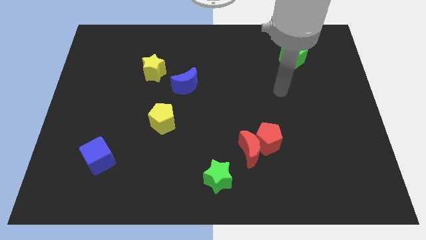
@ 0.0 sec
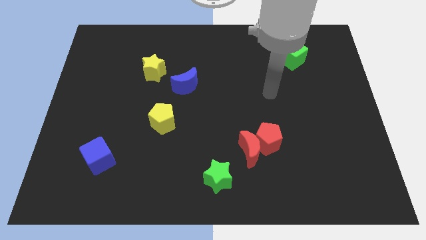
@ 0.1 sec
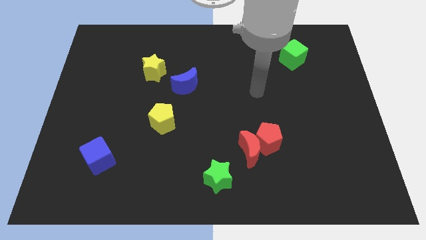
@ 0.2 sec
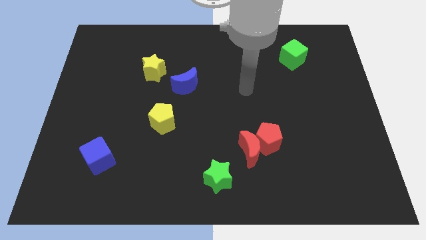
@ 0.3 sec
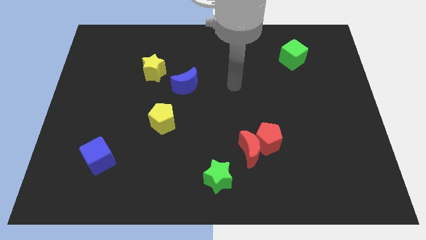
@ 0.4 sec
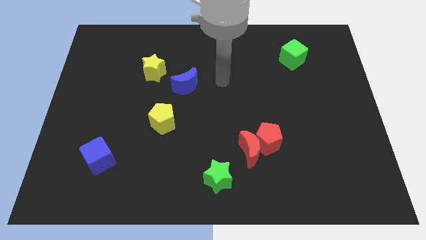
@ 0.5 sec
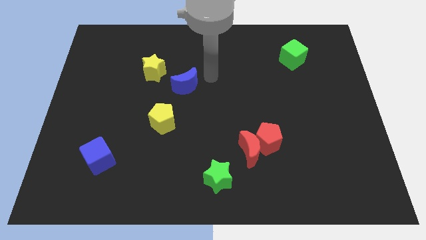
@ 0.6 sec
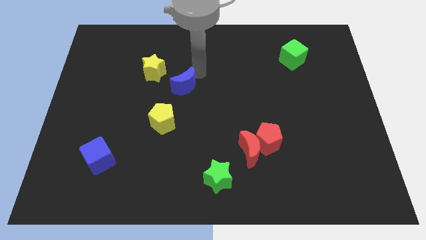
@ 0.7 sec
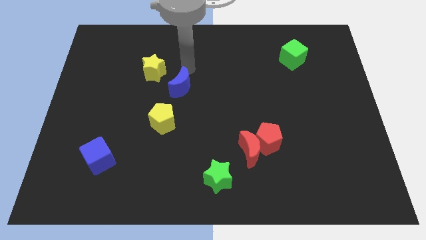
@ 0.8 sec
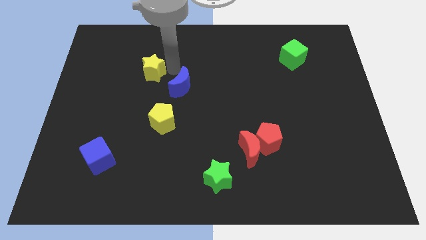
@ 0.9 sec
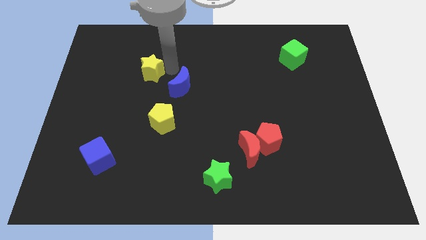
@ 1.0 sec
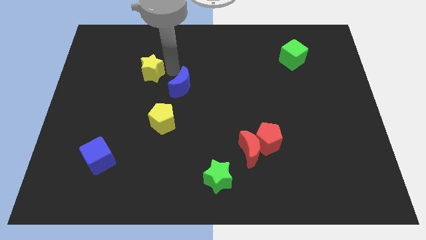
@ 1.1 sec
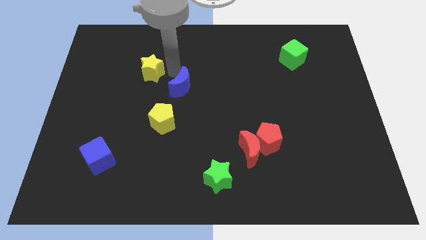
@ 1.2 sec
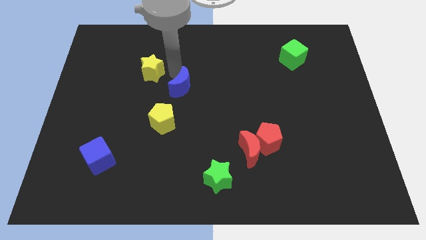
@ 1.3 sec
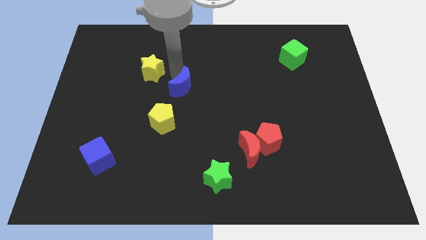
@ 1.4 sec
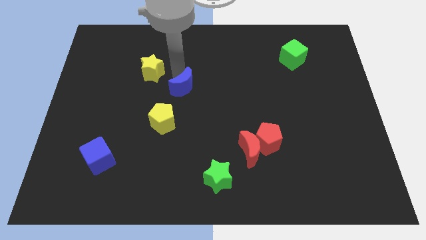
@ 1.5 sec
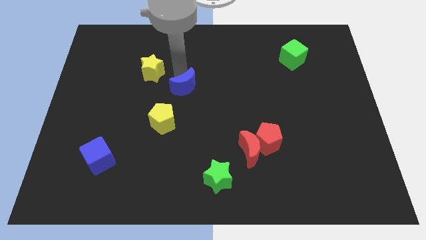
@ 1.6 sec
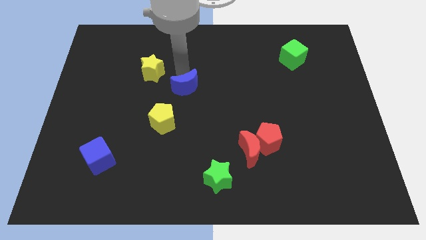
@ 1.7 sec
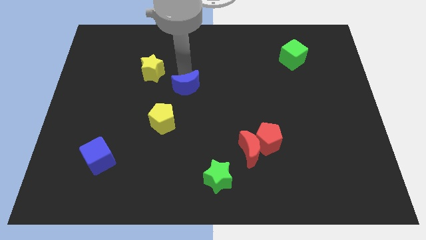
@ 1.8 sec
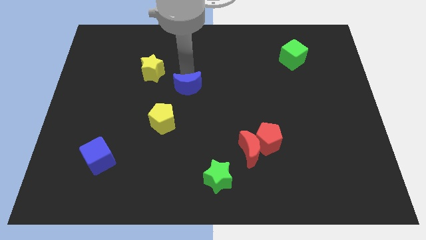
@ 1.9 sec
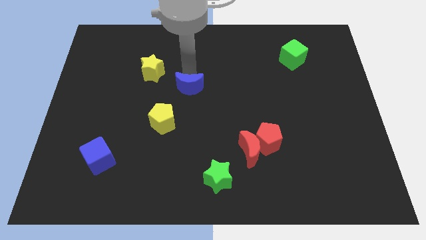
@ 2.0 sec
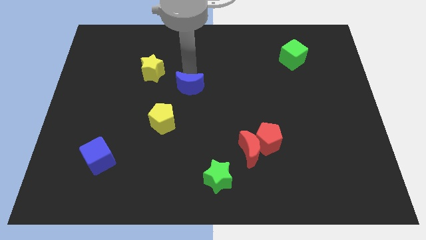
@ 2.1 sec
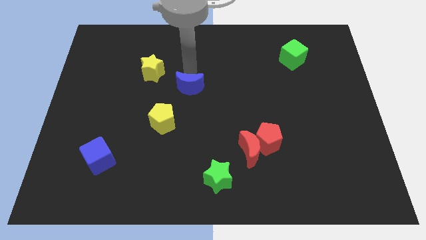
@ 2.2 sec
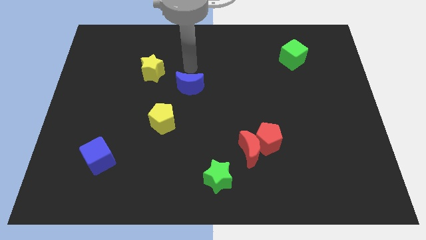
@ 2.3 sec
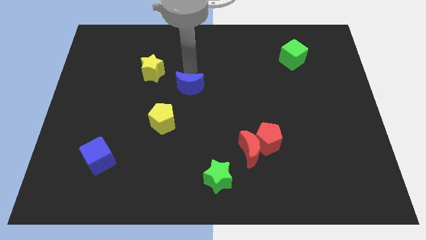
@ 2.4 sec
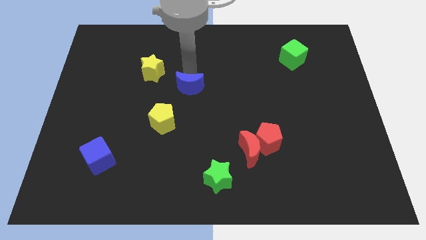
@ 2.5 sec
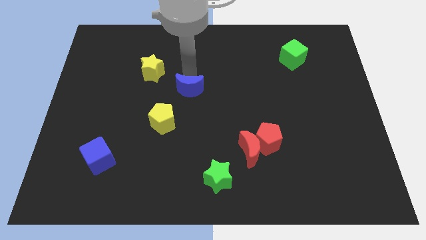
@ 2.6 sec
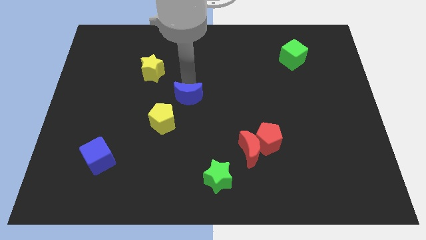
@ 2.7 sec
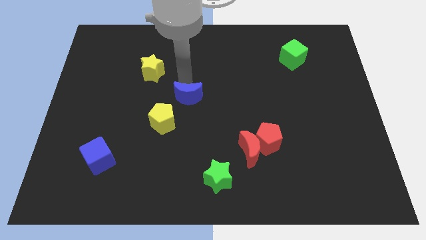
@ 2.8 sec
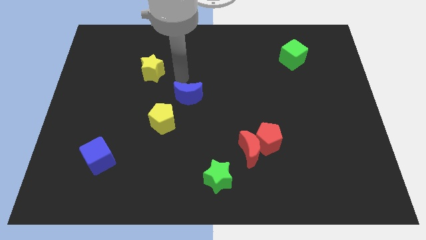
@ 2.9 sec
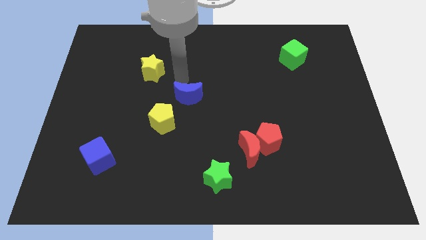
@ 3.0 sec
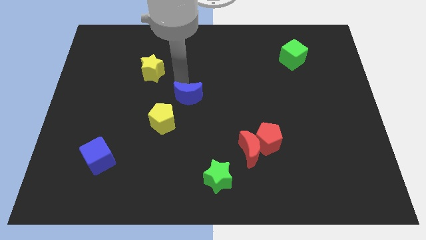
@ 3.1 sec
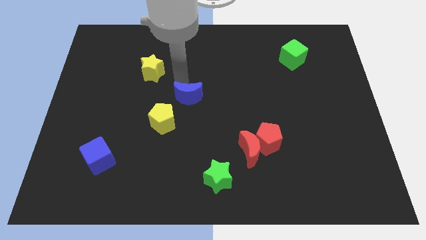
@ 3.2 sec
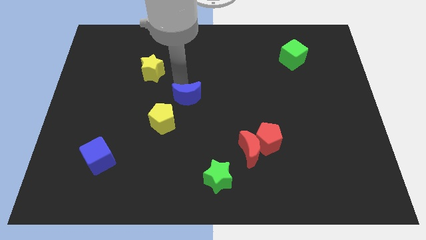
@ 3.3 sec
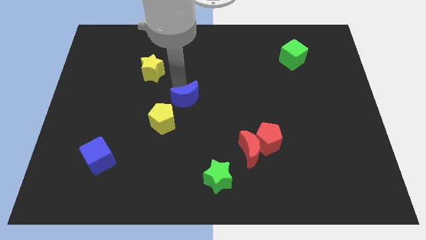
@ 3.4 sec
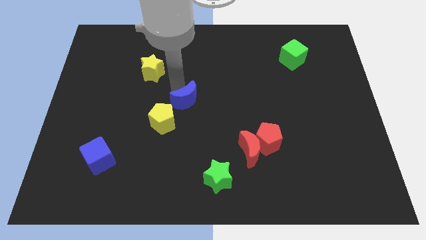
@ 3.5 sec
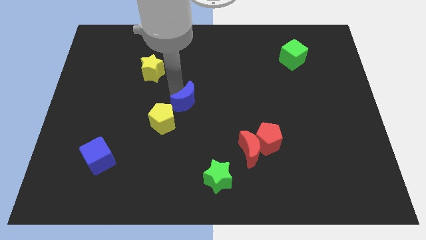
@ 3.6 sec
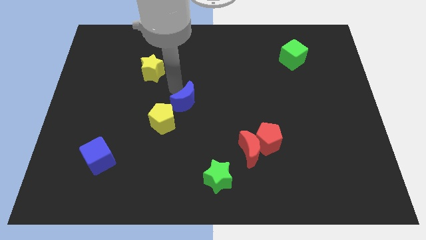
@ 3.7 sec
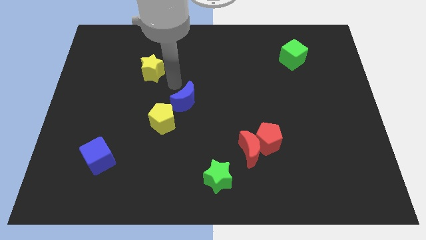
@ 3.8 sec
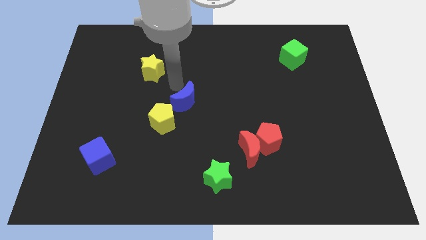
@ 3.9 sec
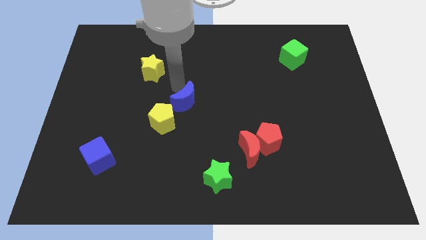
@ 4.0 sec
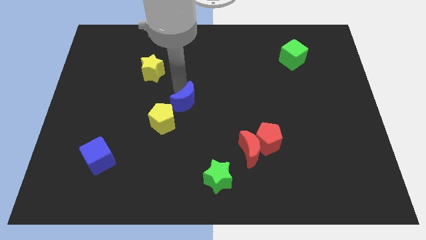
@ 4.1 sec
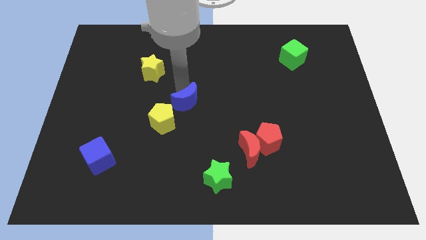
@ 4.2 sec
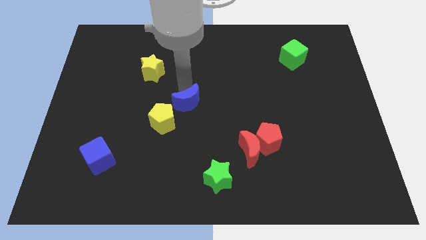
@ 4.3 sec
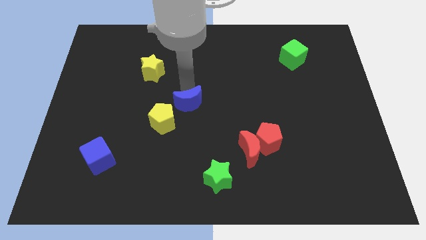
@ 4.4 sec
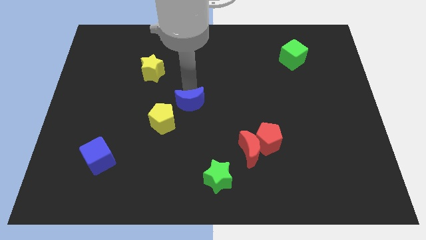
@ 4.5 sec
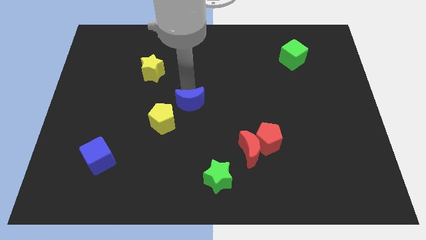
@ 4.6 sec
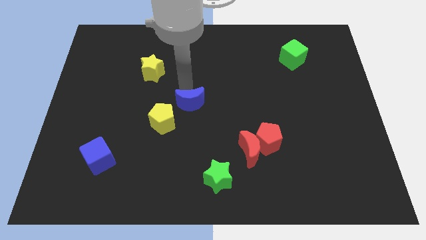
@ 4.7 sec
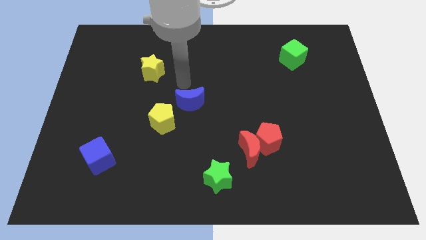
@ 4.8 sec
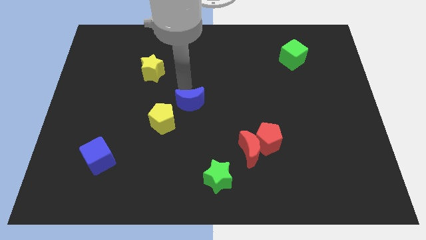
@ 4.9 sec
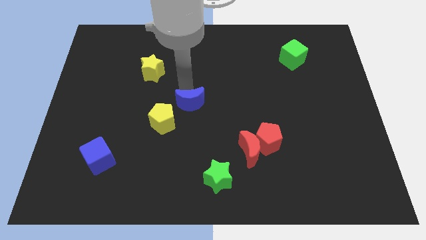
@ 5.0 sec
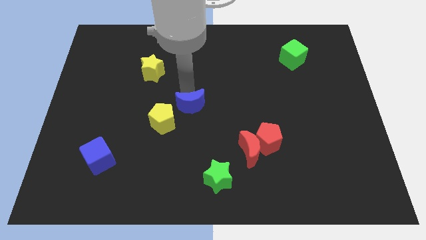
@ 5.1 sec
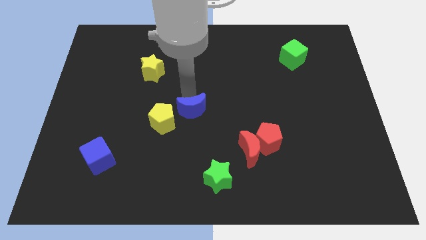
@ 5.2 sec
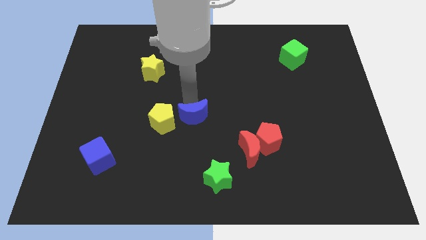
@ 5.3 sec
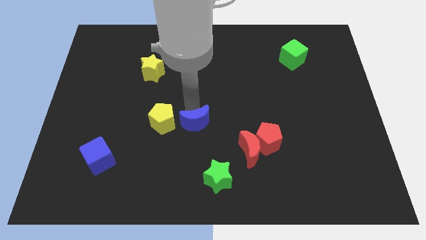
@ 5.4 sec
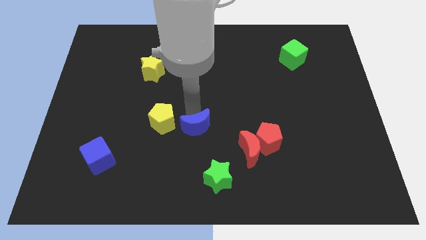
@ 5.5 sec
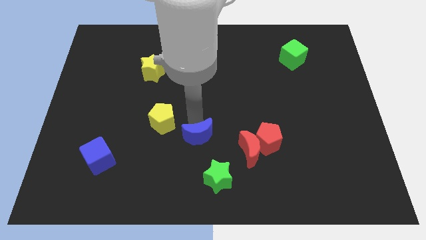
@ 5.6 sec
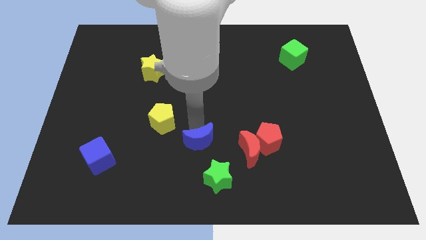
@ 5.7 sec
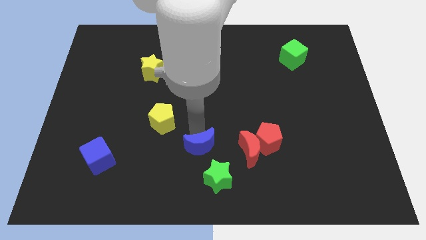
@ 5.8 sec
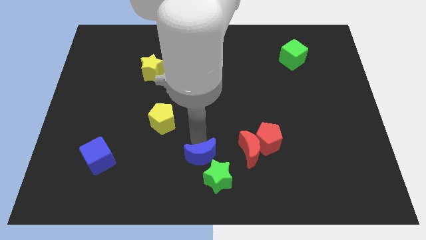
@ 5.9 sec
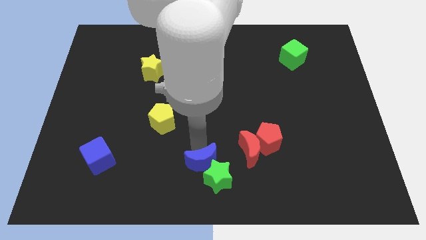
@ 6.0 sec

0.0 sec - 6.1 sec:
put the blue moon next to the green star

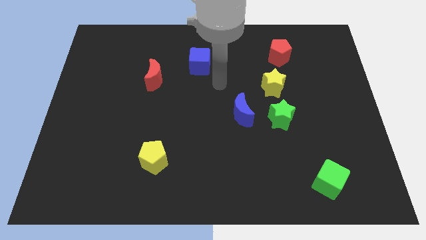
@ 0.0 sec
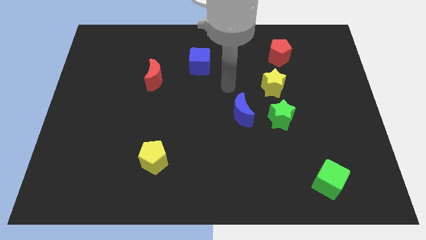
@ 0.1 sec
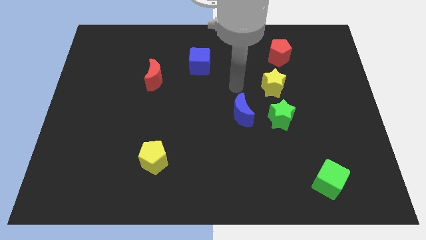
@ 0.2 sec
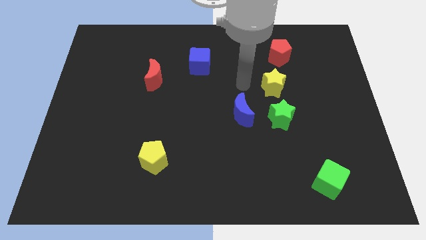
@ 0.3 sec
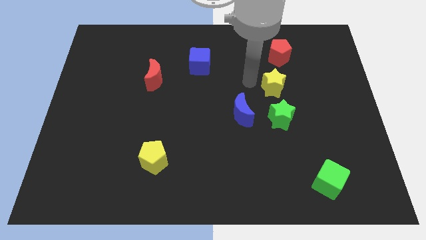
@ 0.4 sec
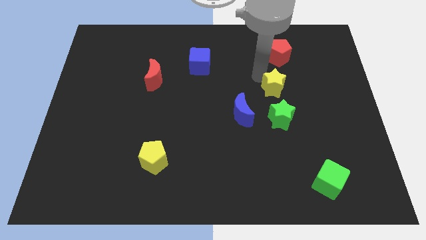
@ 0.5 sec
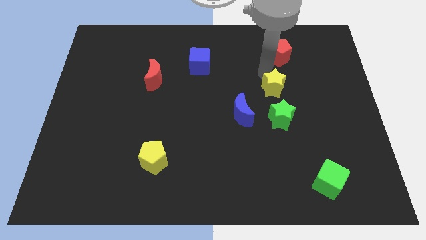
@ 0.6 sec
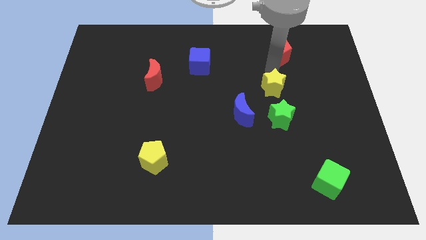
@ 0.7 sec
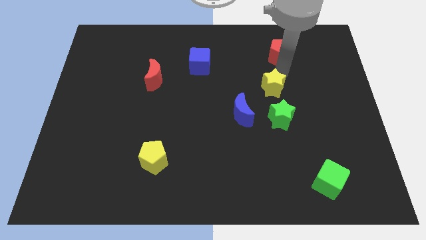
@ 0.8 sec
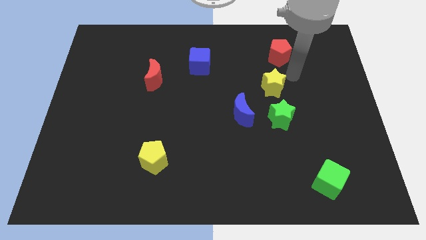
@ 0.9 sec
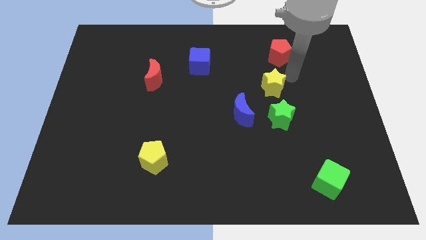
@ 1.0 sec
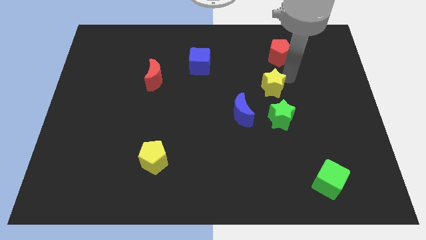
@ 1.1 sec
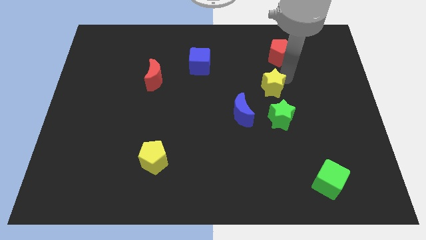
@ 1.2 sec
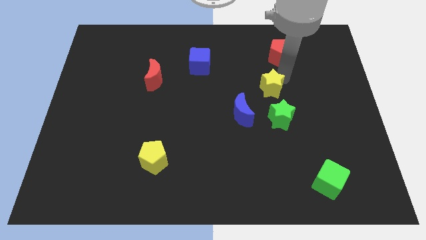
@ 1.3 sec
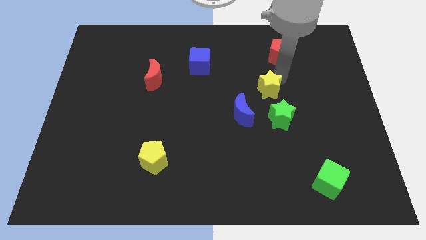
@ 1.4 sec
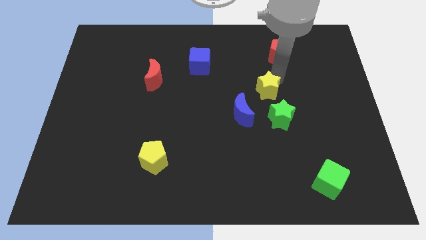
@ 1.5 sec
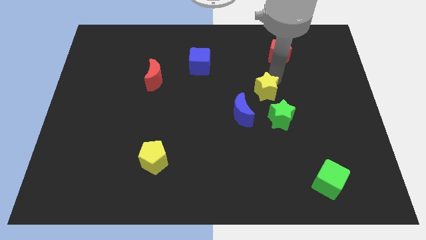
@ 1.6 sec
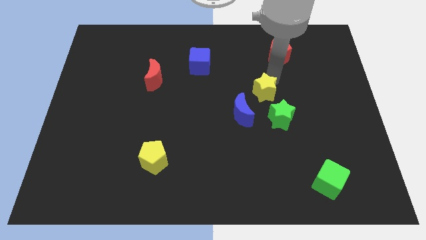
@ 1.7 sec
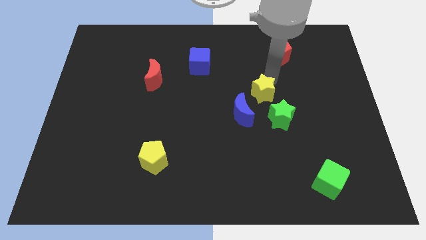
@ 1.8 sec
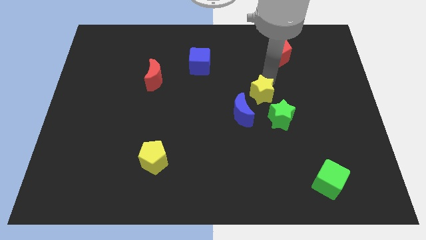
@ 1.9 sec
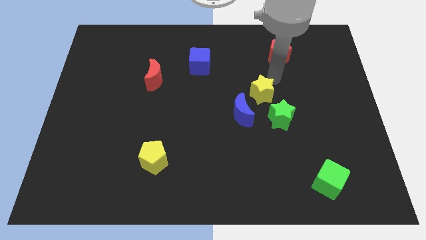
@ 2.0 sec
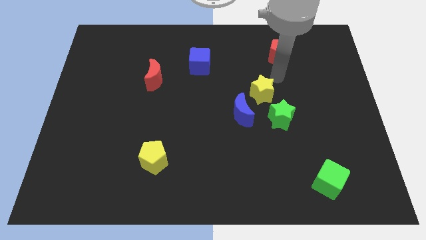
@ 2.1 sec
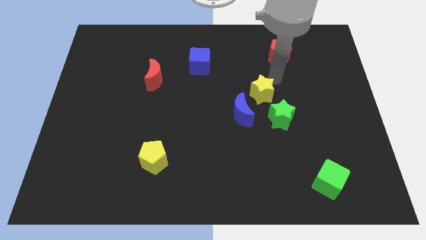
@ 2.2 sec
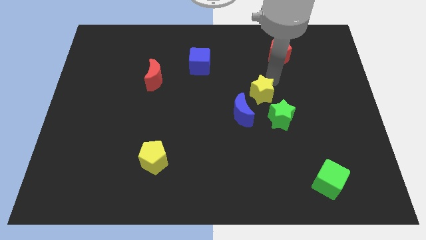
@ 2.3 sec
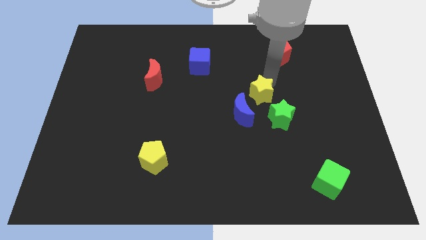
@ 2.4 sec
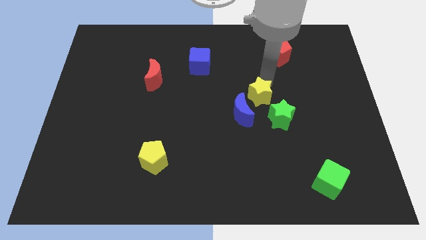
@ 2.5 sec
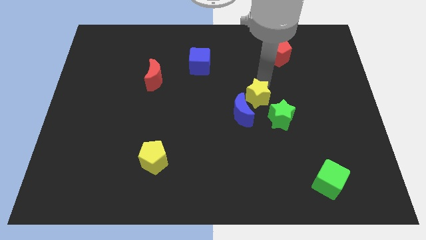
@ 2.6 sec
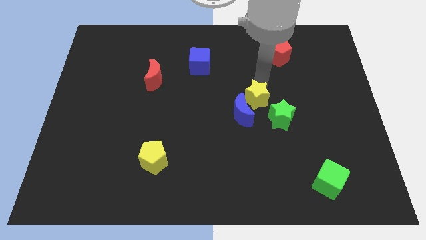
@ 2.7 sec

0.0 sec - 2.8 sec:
slide the yellow star next to the blue moon
